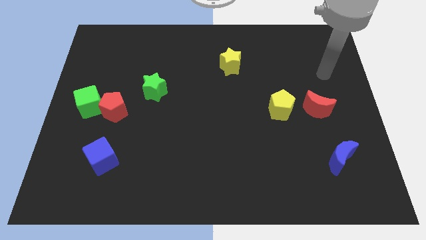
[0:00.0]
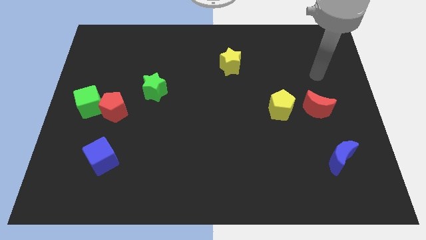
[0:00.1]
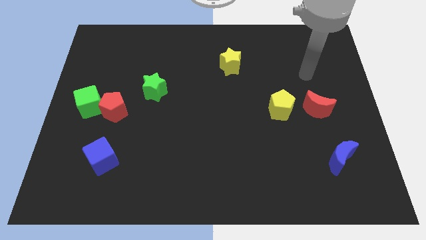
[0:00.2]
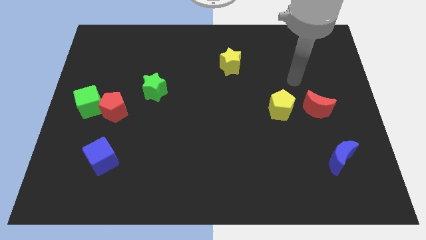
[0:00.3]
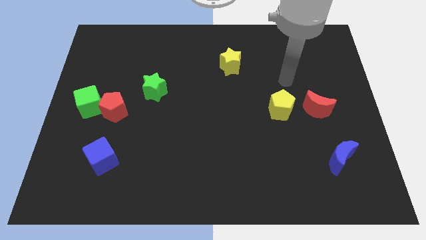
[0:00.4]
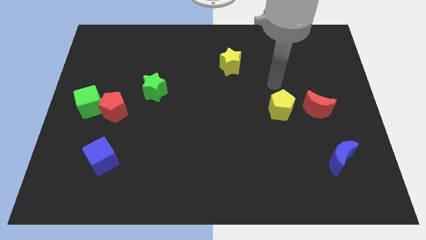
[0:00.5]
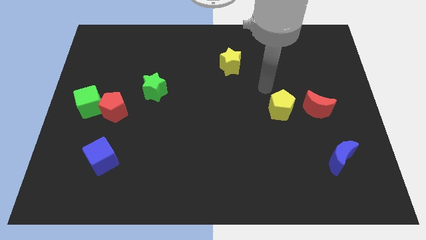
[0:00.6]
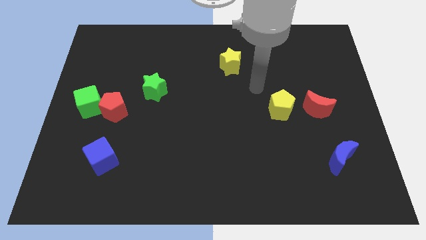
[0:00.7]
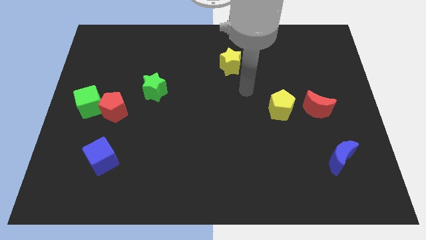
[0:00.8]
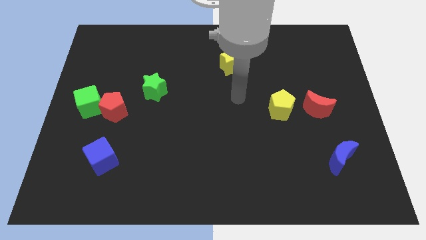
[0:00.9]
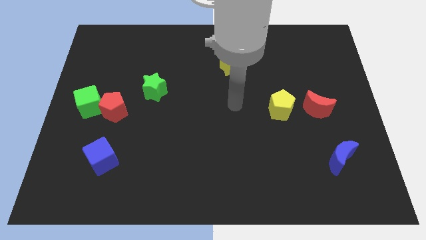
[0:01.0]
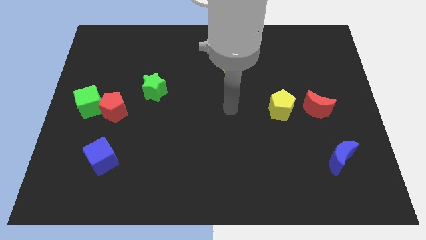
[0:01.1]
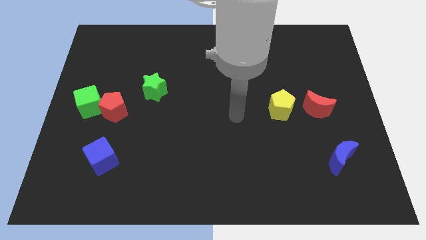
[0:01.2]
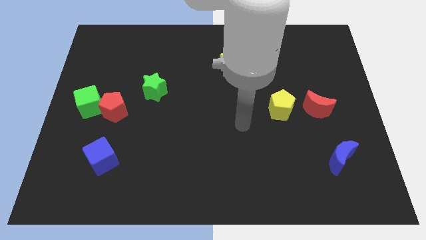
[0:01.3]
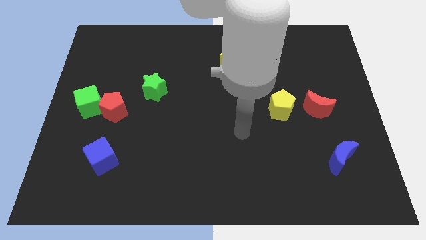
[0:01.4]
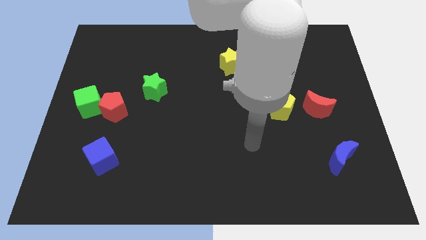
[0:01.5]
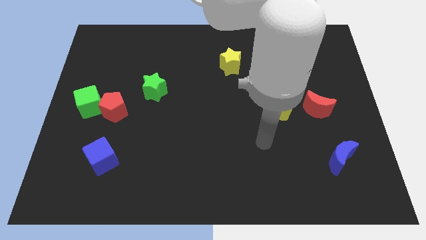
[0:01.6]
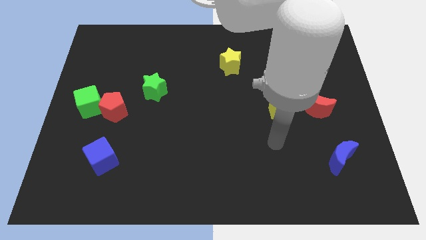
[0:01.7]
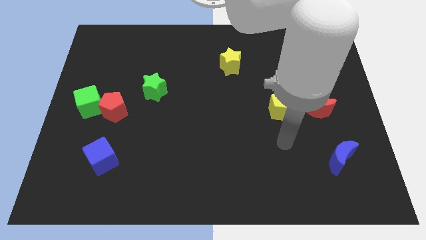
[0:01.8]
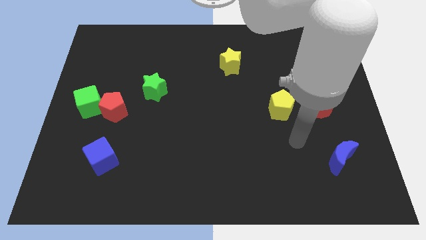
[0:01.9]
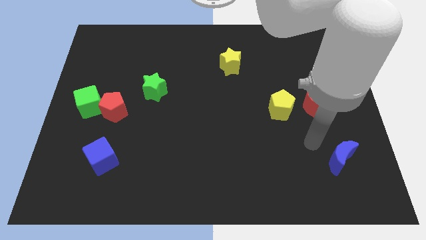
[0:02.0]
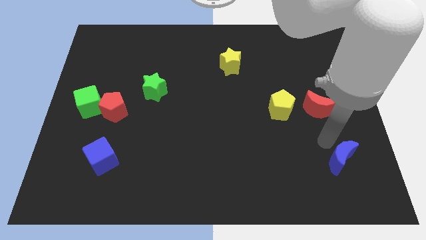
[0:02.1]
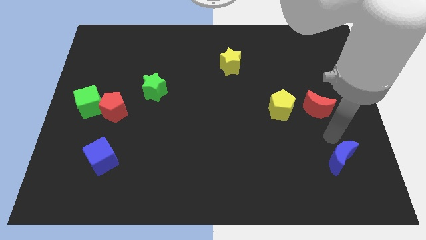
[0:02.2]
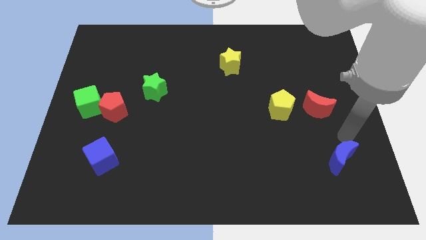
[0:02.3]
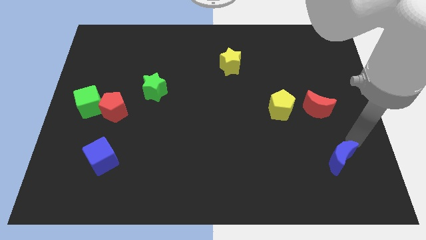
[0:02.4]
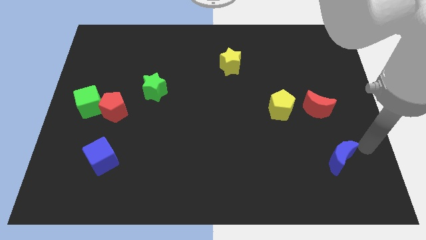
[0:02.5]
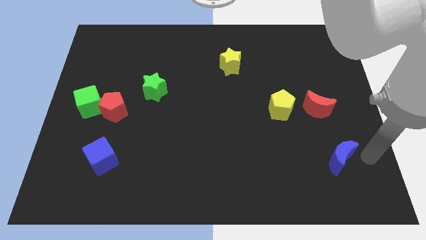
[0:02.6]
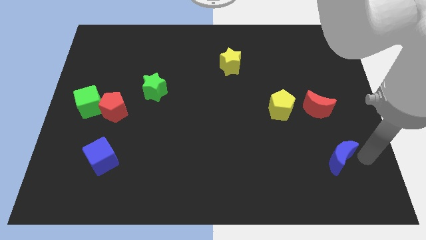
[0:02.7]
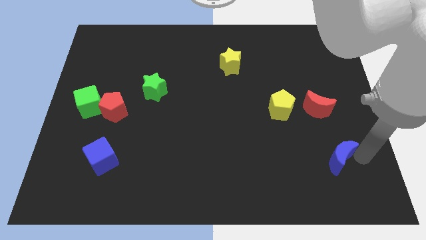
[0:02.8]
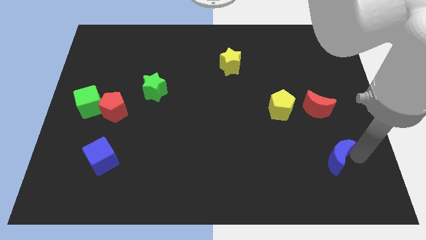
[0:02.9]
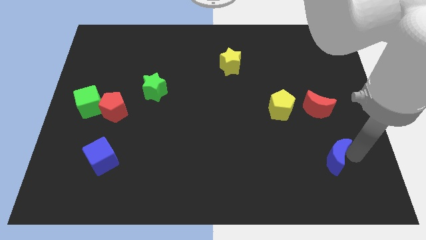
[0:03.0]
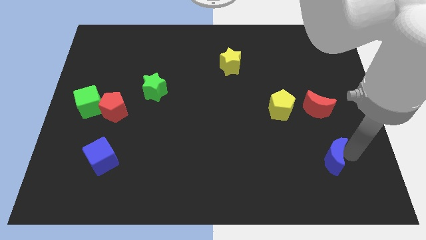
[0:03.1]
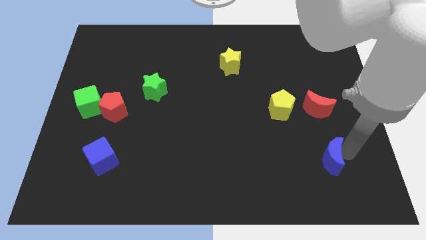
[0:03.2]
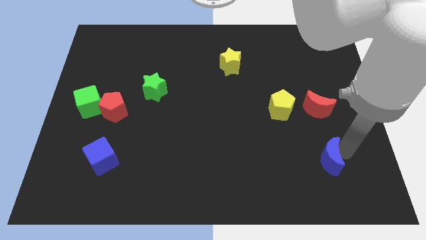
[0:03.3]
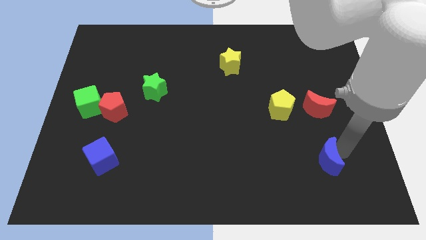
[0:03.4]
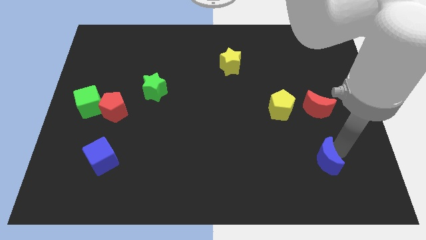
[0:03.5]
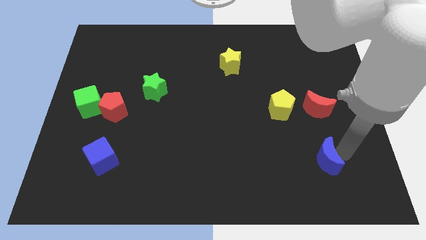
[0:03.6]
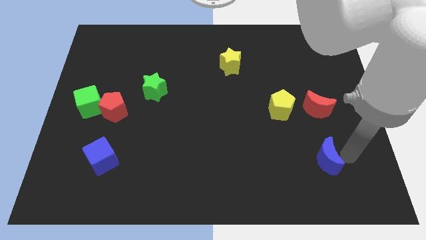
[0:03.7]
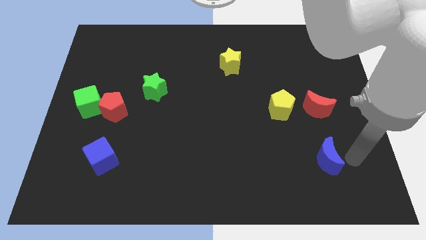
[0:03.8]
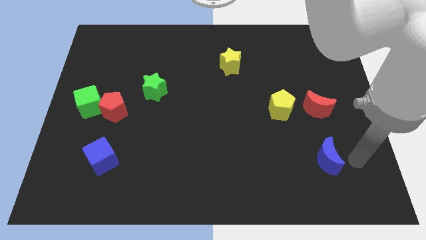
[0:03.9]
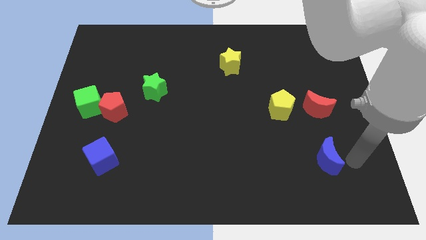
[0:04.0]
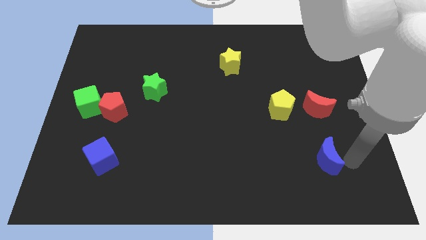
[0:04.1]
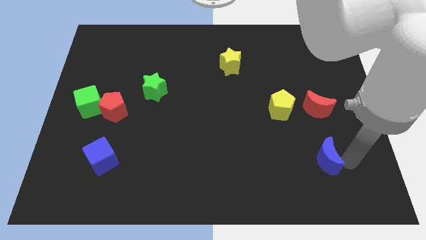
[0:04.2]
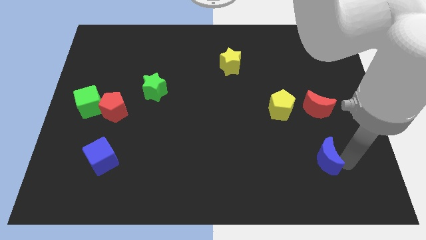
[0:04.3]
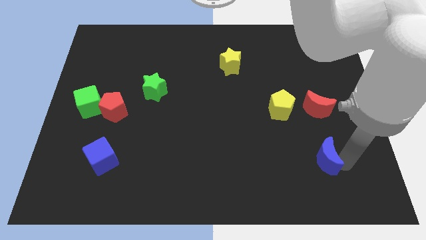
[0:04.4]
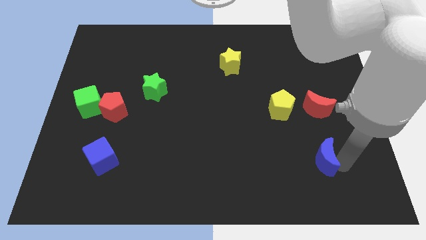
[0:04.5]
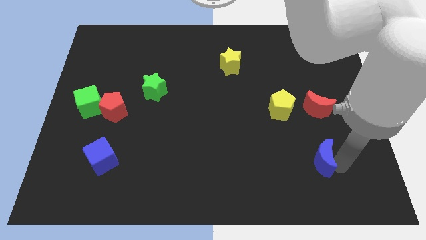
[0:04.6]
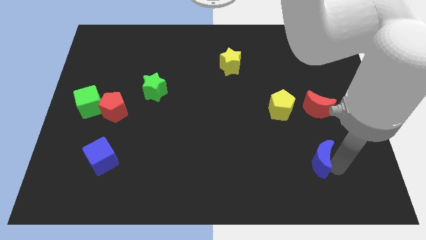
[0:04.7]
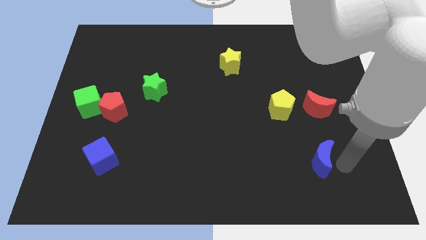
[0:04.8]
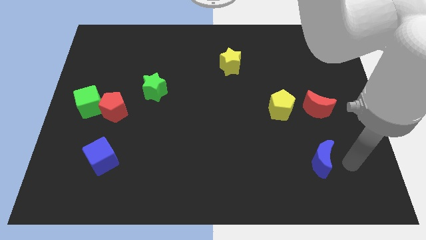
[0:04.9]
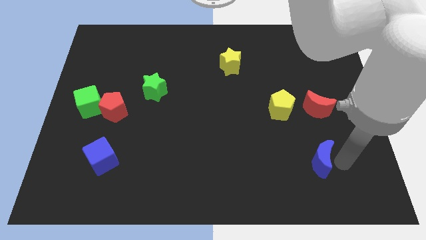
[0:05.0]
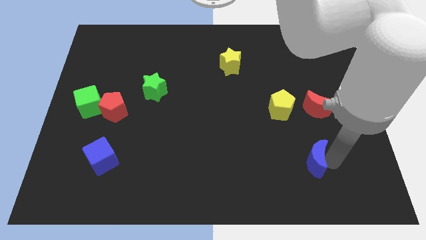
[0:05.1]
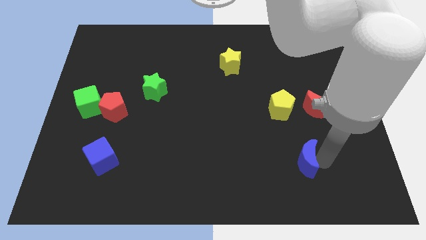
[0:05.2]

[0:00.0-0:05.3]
slide the blue moon left a little bit

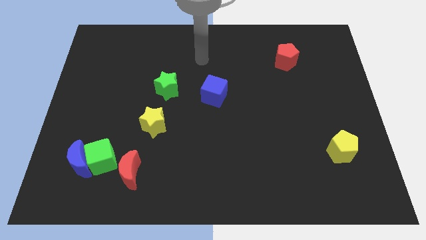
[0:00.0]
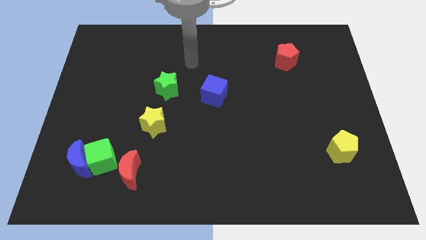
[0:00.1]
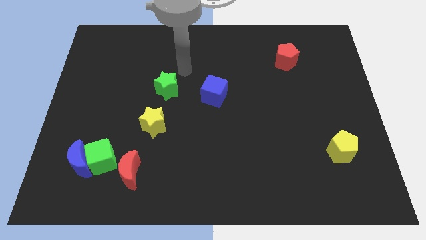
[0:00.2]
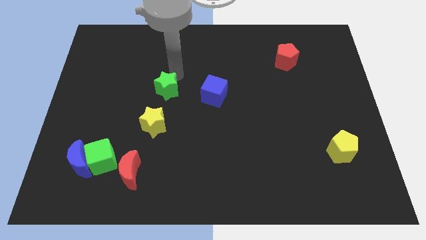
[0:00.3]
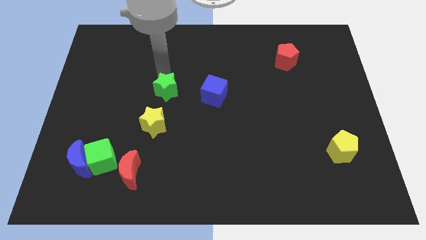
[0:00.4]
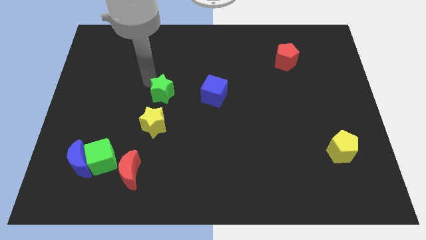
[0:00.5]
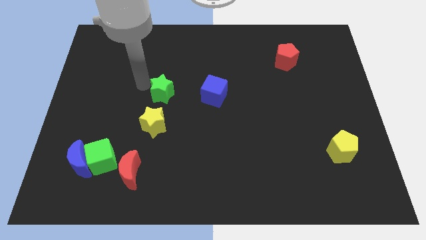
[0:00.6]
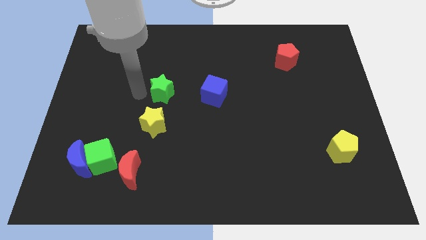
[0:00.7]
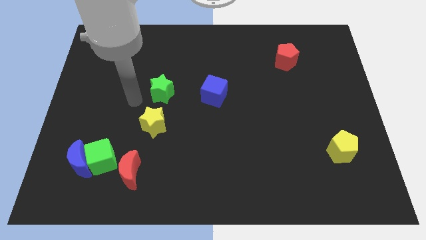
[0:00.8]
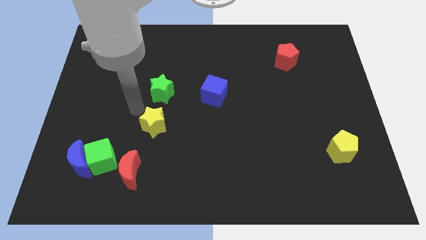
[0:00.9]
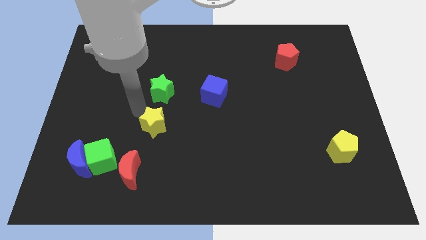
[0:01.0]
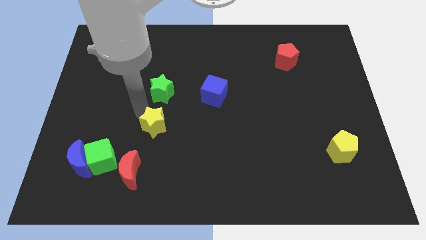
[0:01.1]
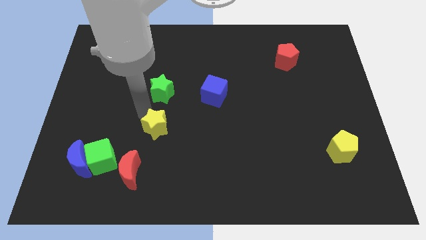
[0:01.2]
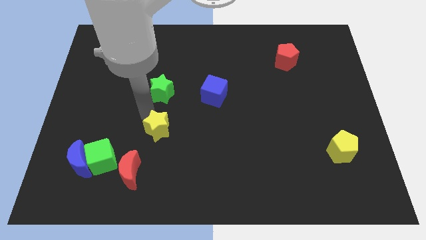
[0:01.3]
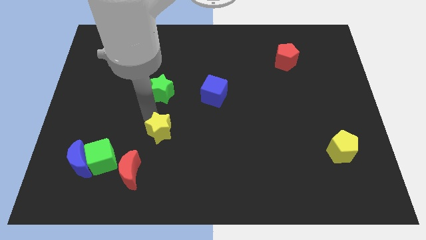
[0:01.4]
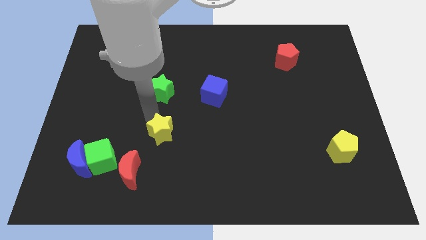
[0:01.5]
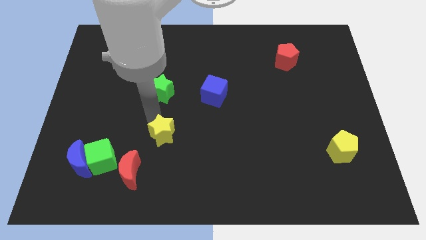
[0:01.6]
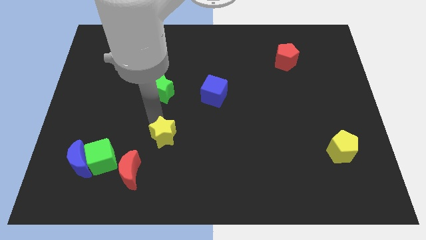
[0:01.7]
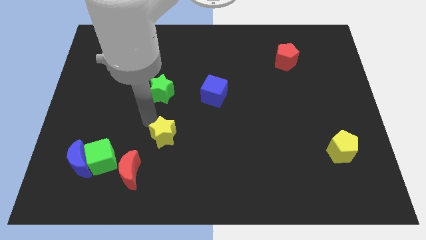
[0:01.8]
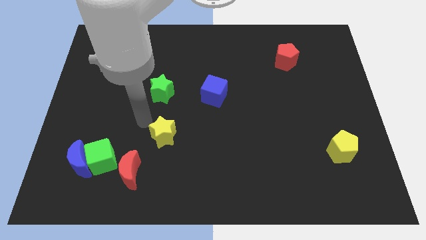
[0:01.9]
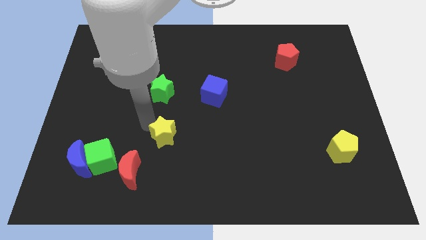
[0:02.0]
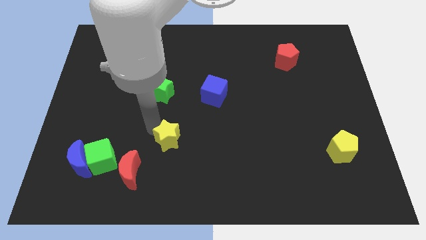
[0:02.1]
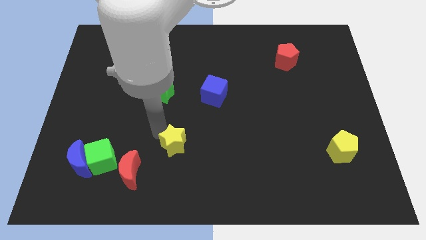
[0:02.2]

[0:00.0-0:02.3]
slide the yellow star a little bit diagonally downwards and right

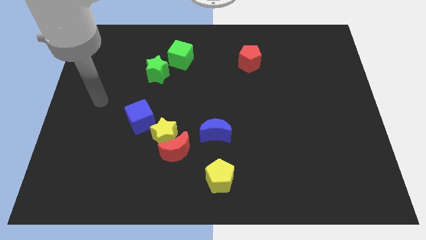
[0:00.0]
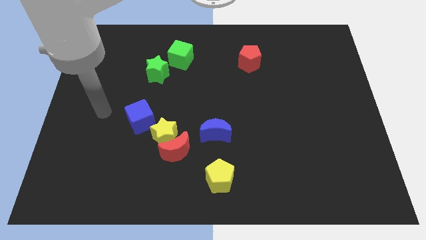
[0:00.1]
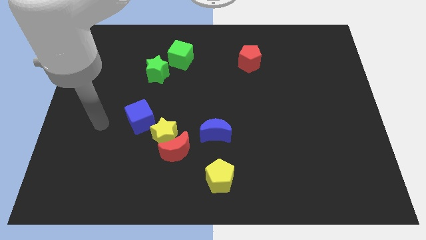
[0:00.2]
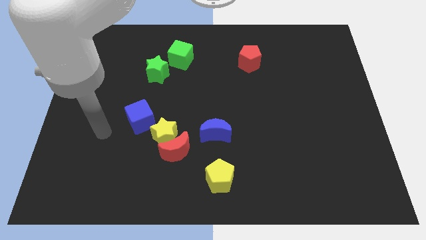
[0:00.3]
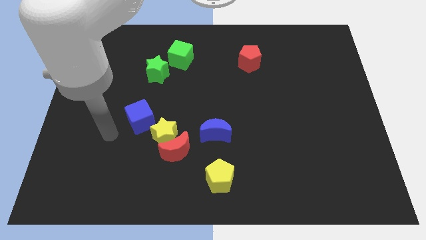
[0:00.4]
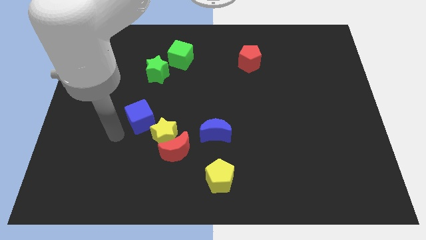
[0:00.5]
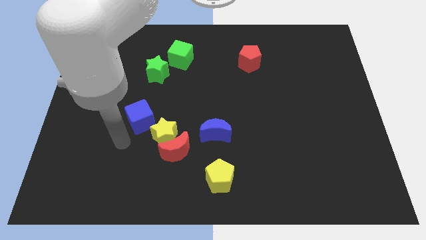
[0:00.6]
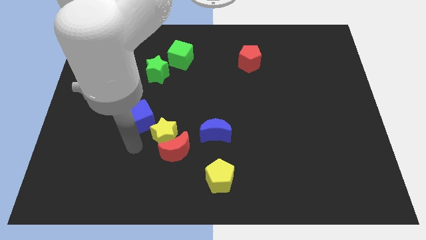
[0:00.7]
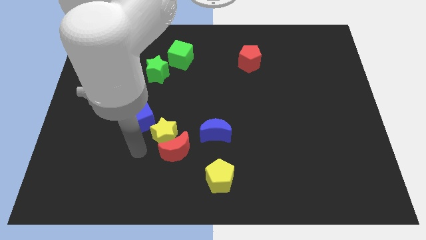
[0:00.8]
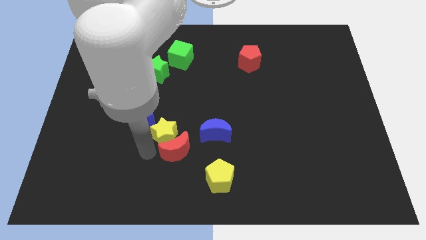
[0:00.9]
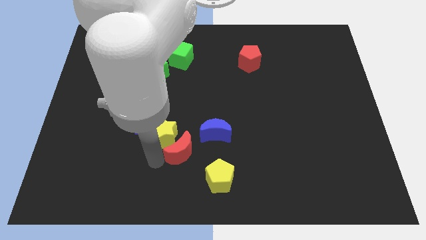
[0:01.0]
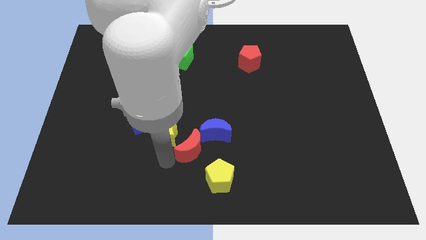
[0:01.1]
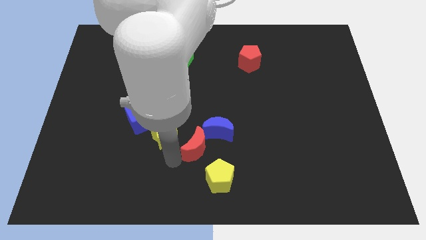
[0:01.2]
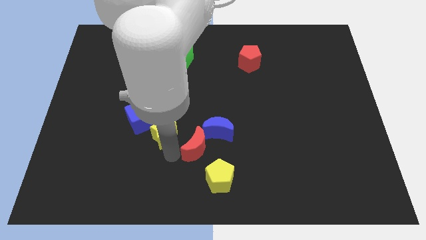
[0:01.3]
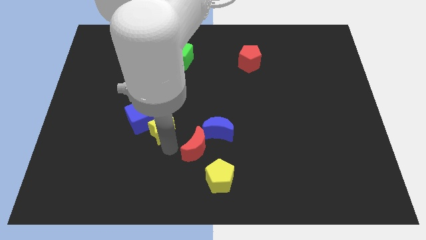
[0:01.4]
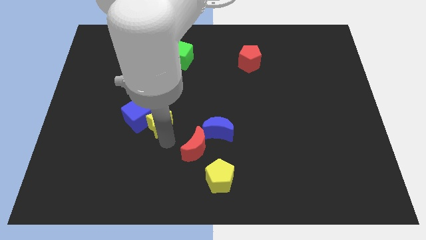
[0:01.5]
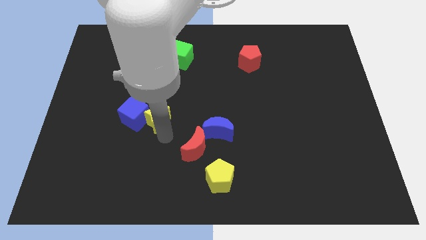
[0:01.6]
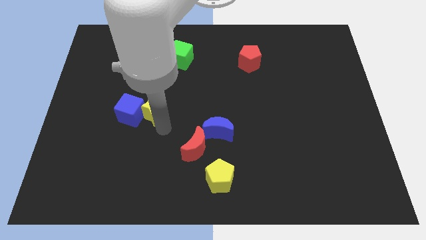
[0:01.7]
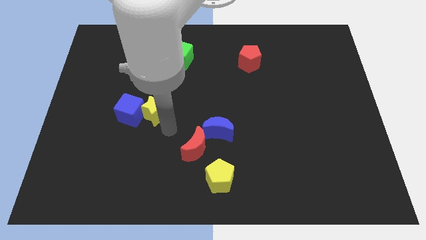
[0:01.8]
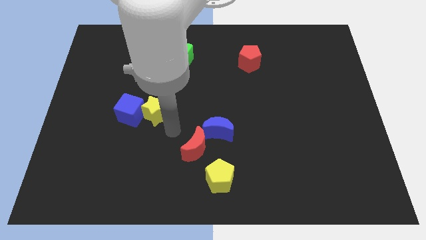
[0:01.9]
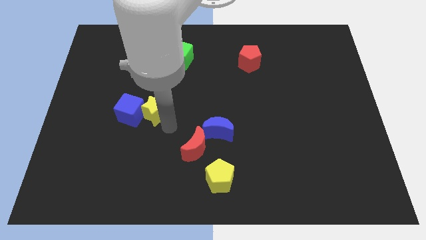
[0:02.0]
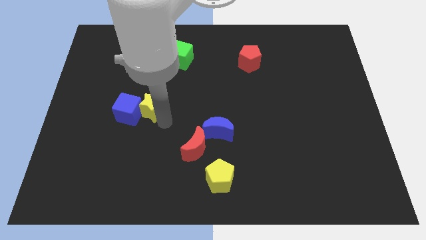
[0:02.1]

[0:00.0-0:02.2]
slightly push the yellow star upwards and then to the left
